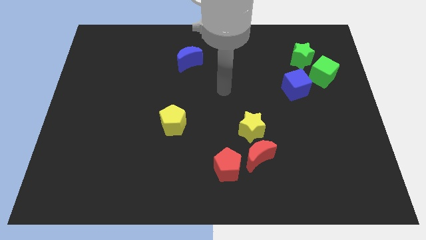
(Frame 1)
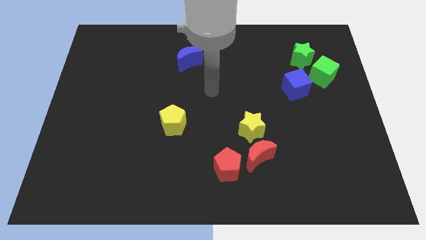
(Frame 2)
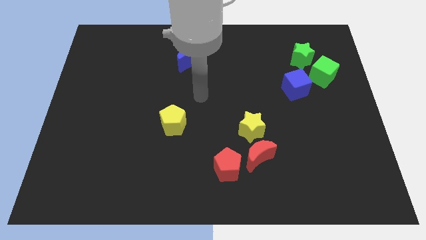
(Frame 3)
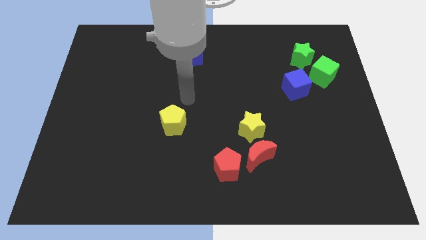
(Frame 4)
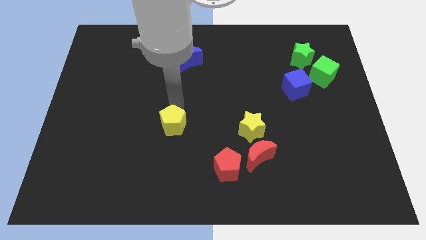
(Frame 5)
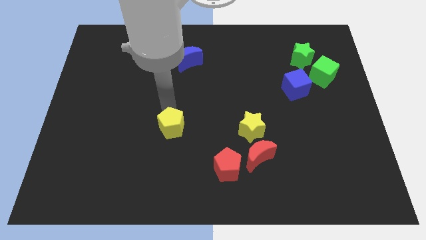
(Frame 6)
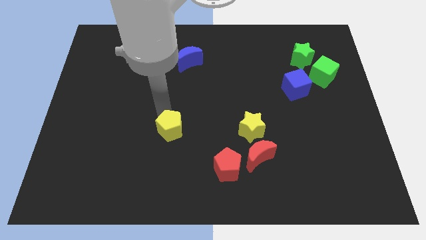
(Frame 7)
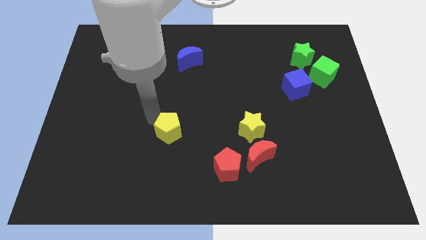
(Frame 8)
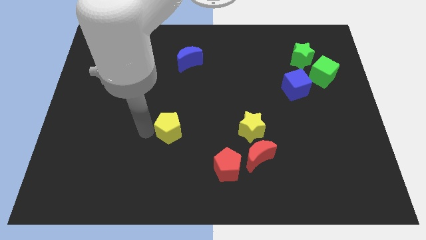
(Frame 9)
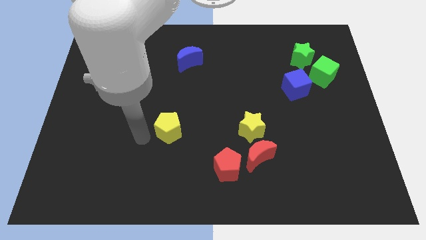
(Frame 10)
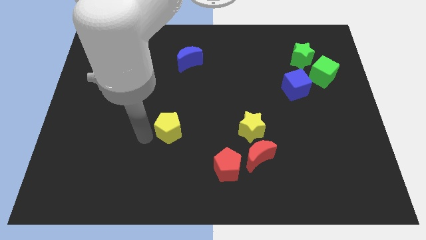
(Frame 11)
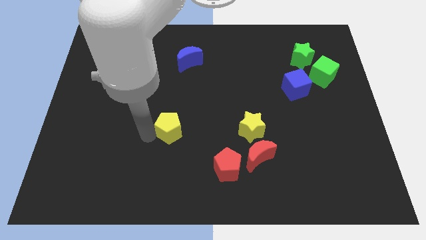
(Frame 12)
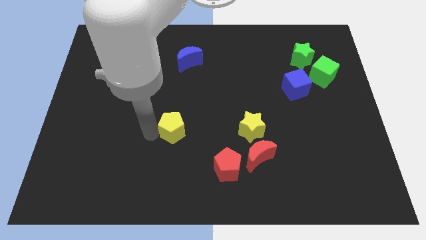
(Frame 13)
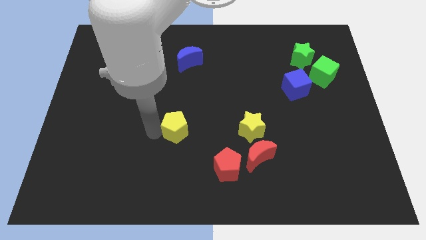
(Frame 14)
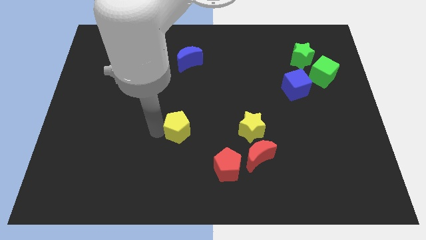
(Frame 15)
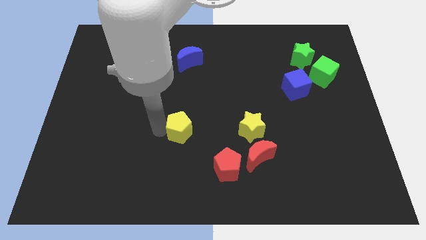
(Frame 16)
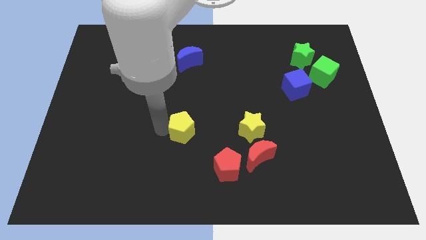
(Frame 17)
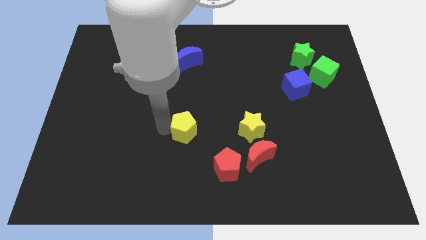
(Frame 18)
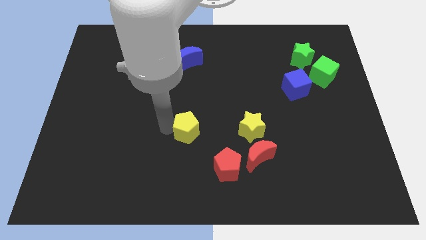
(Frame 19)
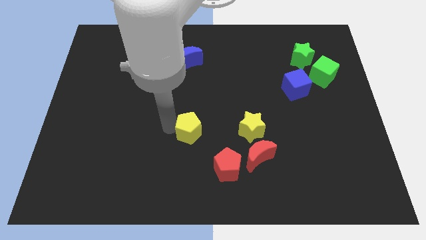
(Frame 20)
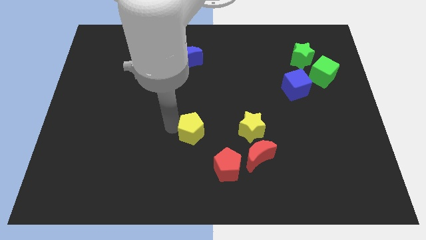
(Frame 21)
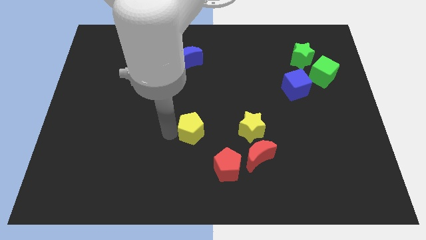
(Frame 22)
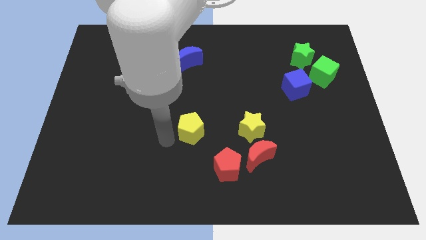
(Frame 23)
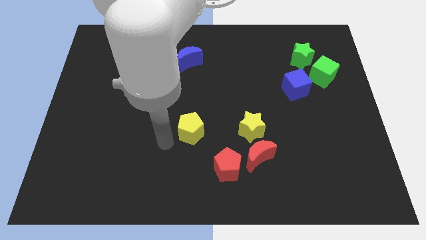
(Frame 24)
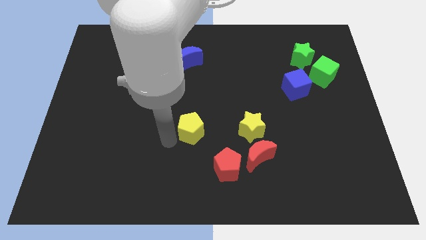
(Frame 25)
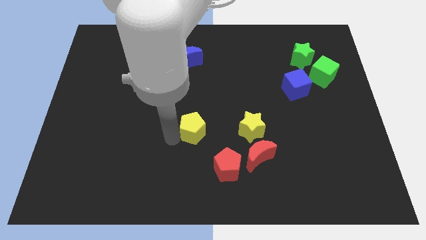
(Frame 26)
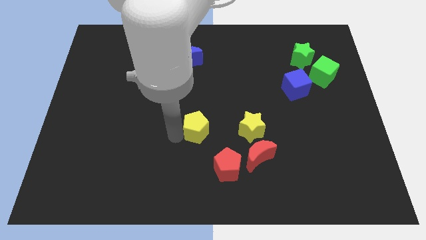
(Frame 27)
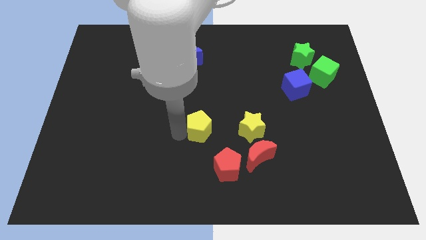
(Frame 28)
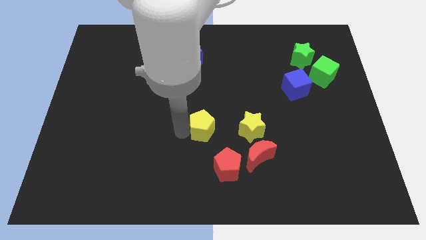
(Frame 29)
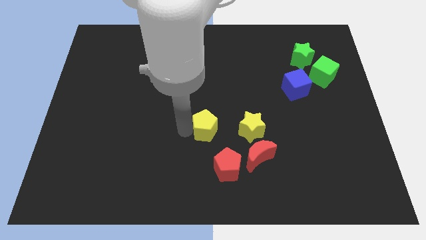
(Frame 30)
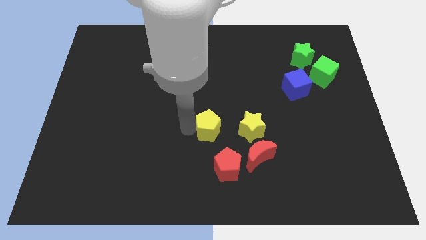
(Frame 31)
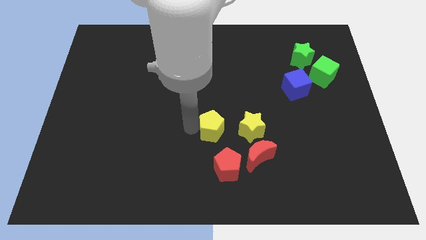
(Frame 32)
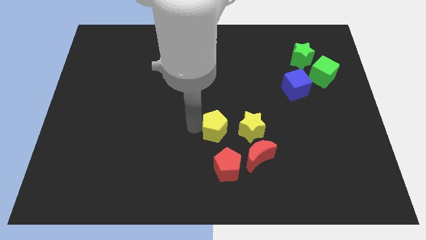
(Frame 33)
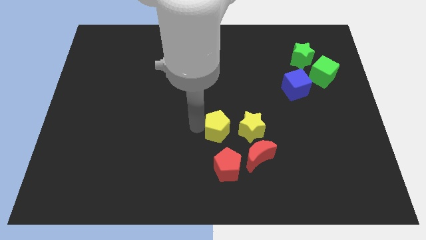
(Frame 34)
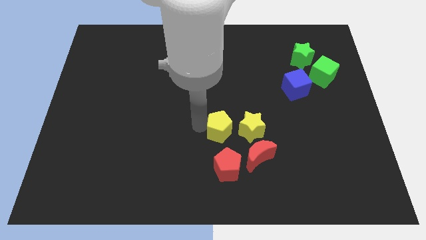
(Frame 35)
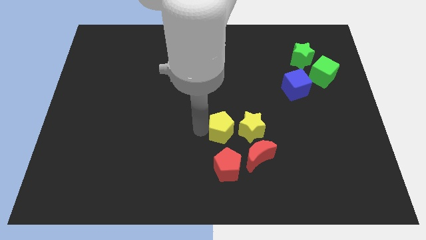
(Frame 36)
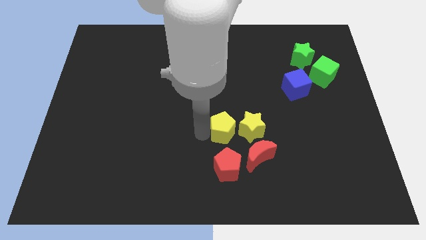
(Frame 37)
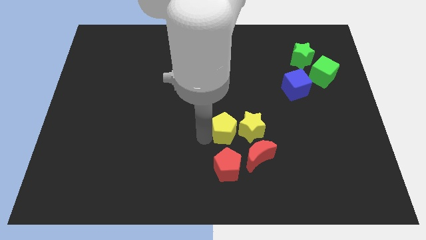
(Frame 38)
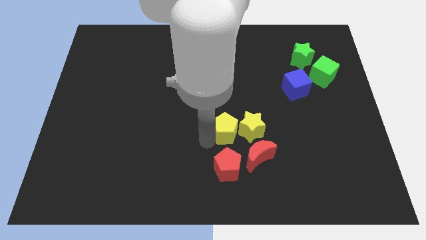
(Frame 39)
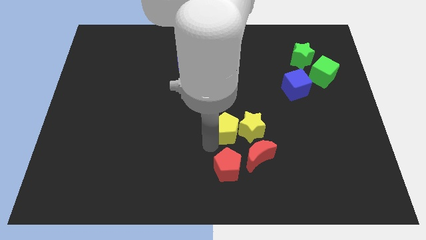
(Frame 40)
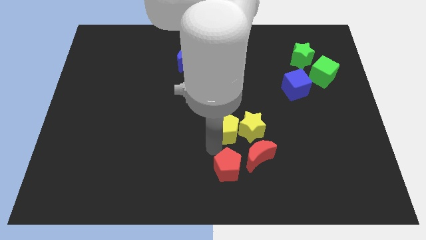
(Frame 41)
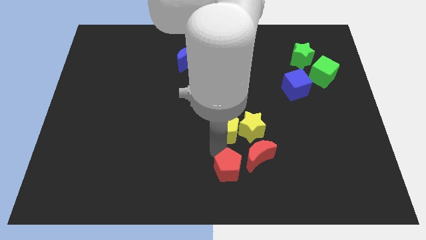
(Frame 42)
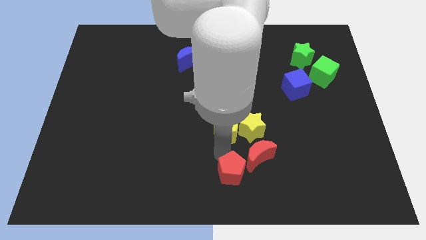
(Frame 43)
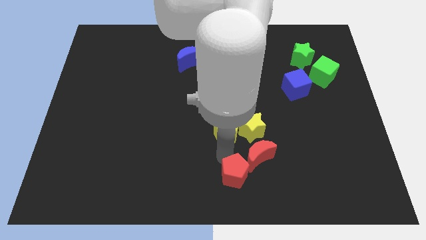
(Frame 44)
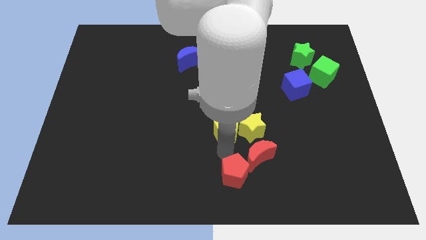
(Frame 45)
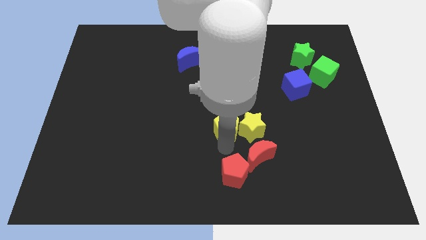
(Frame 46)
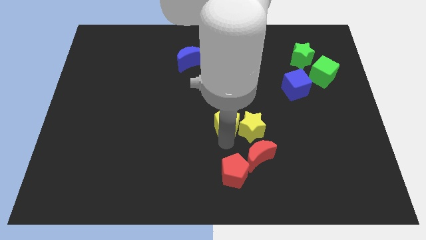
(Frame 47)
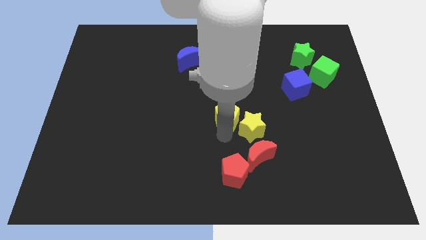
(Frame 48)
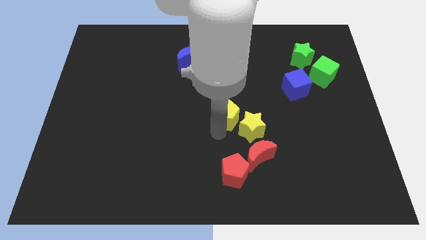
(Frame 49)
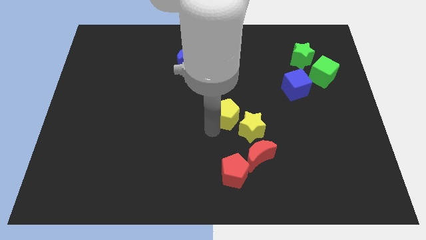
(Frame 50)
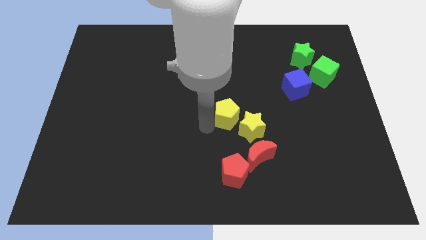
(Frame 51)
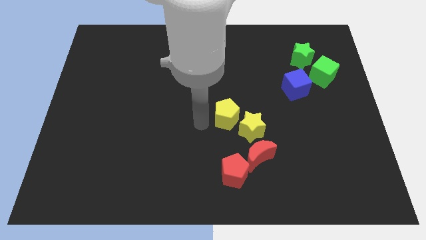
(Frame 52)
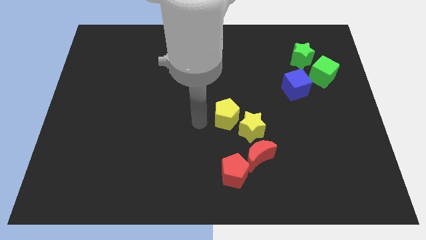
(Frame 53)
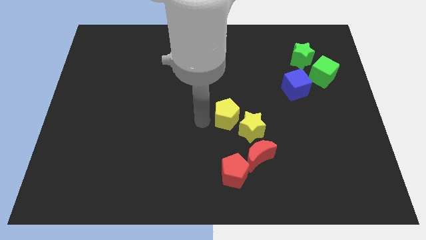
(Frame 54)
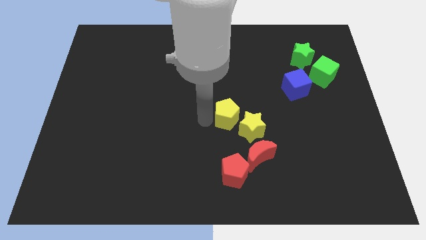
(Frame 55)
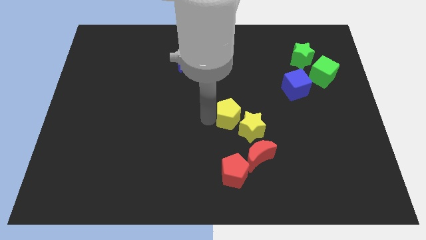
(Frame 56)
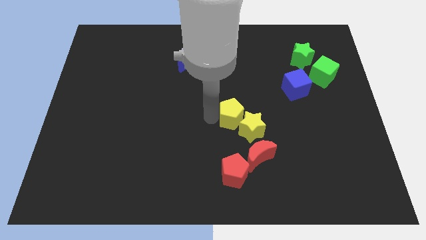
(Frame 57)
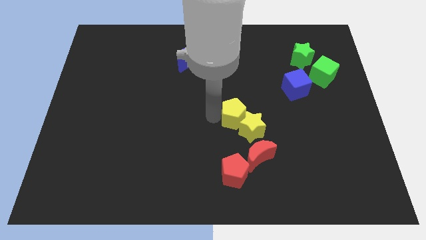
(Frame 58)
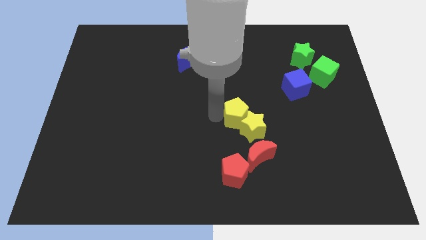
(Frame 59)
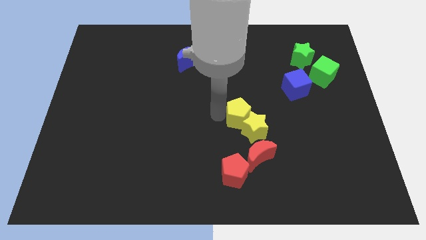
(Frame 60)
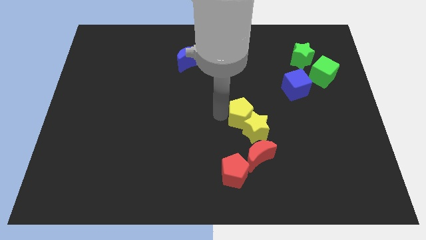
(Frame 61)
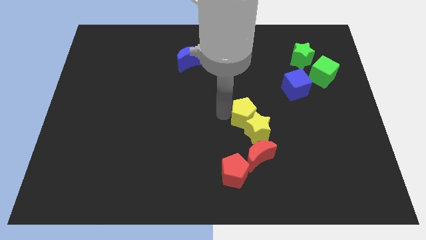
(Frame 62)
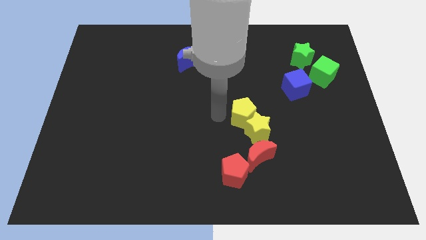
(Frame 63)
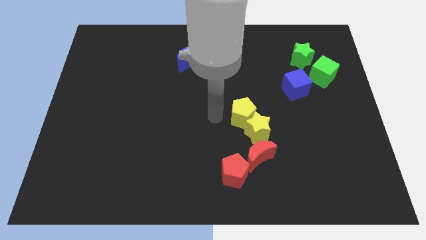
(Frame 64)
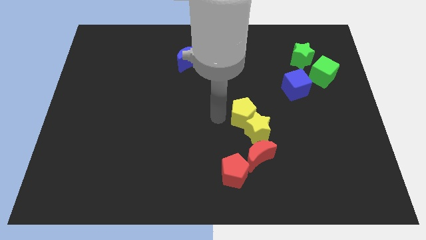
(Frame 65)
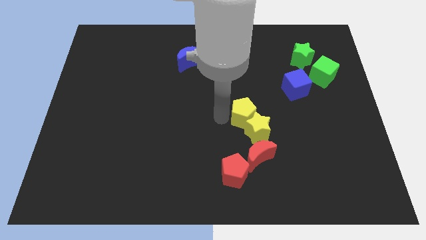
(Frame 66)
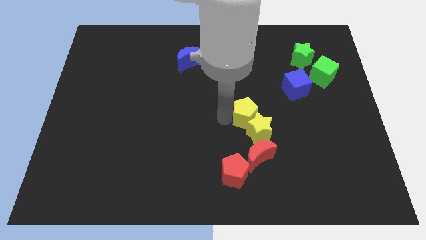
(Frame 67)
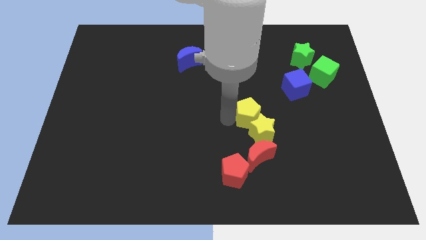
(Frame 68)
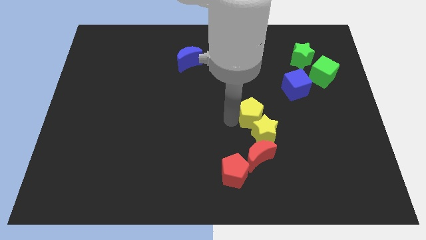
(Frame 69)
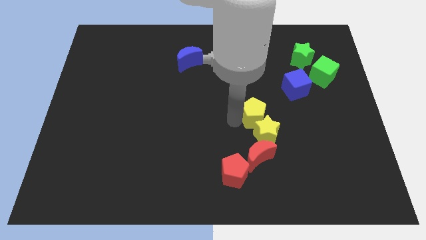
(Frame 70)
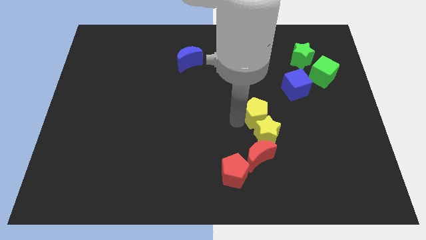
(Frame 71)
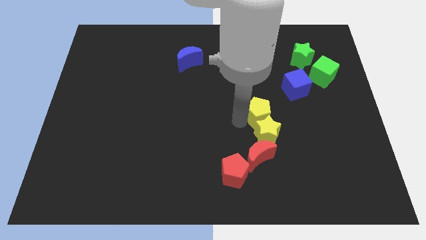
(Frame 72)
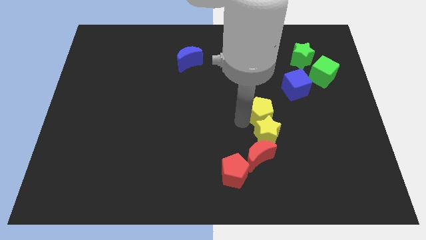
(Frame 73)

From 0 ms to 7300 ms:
slide the yellow pentagon to the right

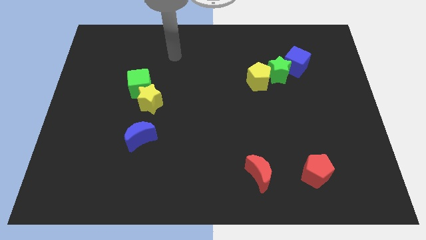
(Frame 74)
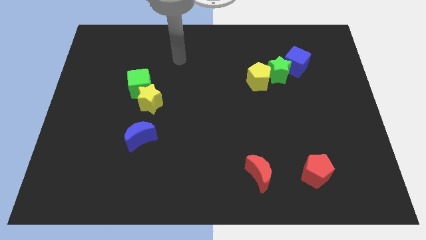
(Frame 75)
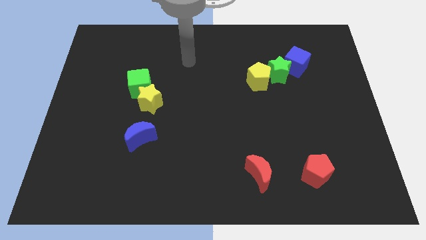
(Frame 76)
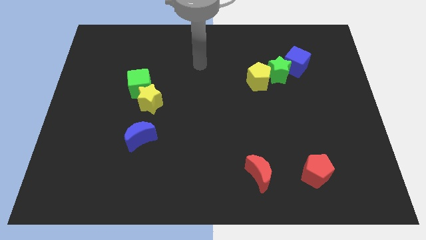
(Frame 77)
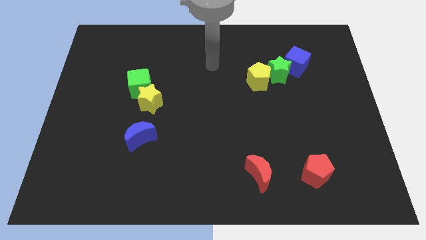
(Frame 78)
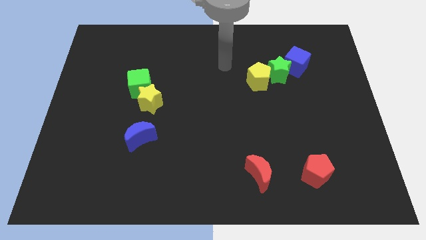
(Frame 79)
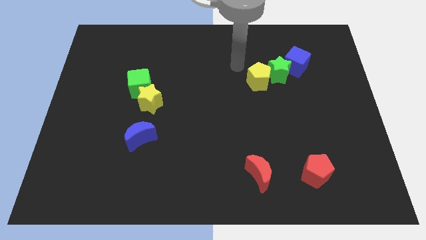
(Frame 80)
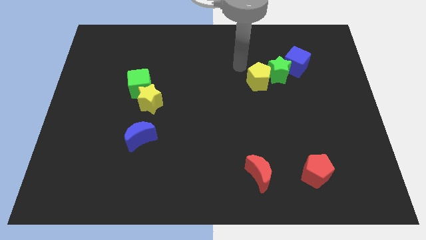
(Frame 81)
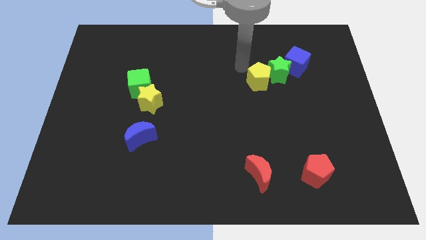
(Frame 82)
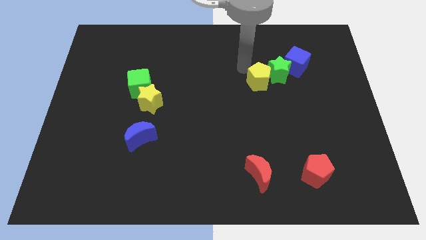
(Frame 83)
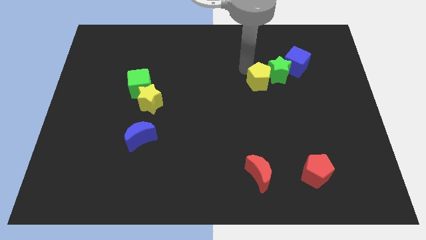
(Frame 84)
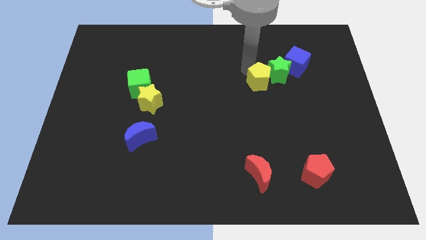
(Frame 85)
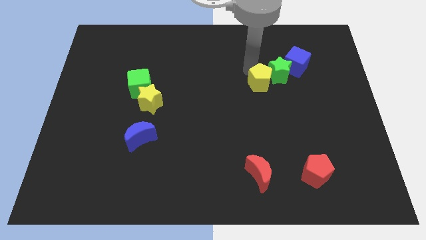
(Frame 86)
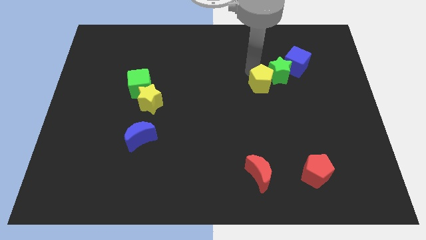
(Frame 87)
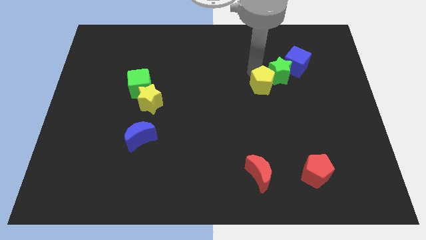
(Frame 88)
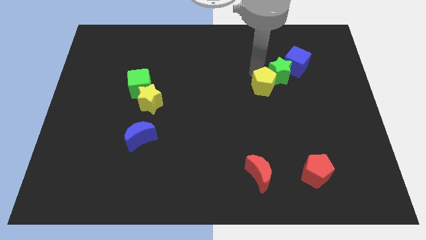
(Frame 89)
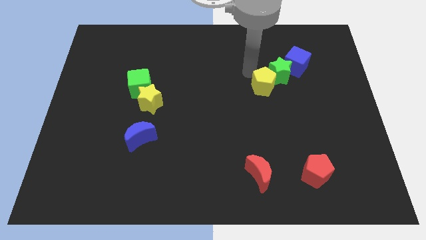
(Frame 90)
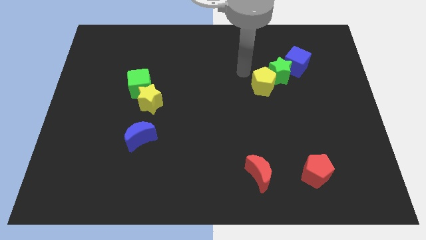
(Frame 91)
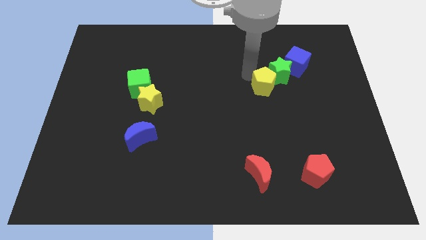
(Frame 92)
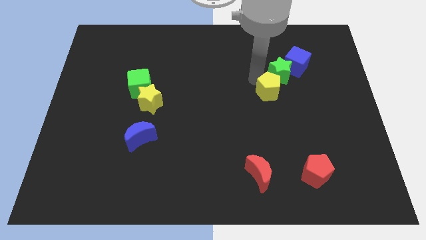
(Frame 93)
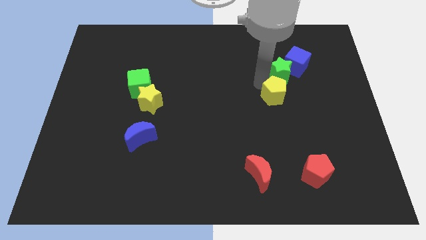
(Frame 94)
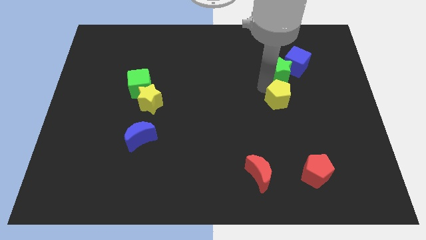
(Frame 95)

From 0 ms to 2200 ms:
slightly push the yellow pentagon downwards and to the right
